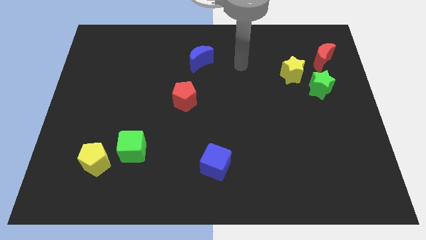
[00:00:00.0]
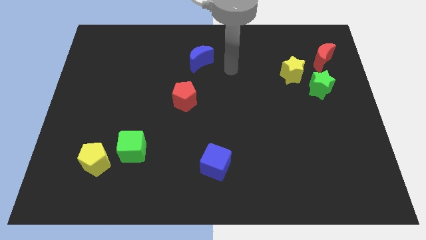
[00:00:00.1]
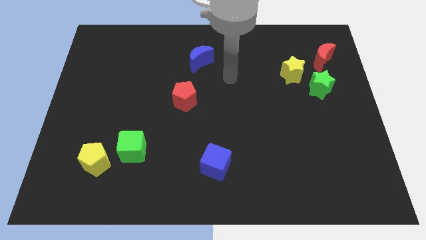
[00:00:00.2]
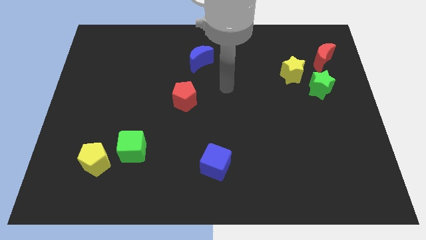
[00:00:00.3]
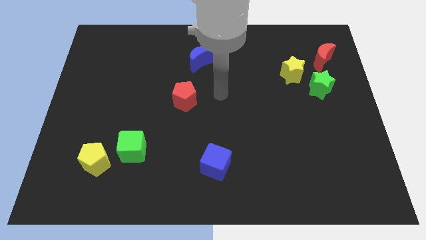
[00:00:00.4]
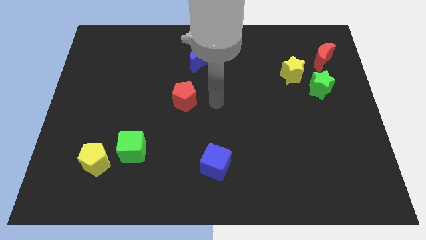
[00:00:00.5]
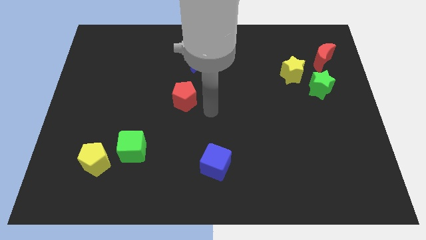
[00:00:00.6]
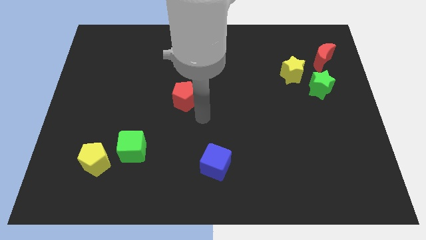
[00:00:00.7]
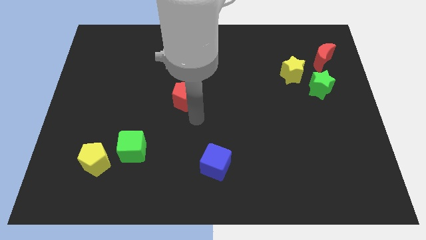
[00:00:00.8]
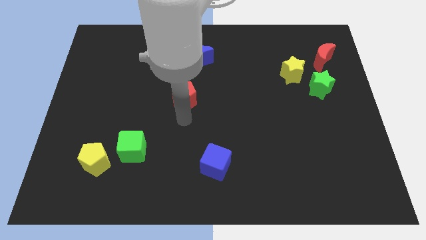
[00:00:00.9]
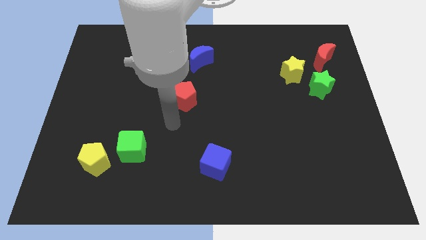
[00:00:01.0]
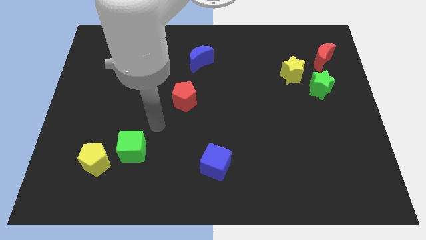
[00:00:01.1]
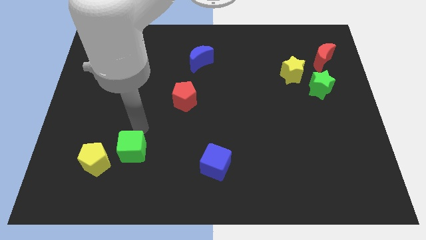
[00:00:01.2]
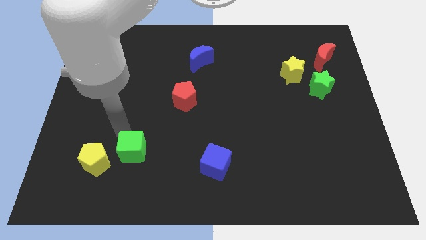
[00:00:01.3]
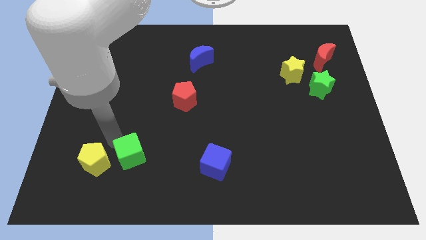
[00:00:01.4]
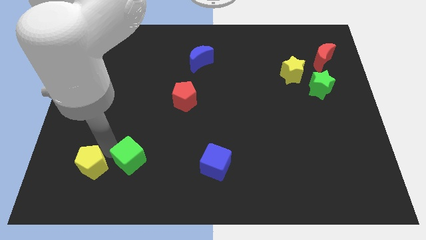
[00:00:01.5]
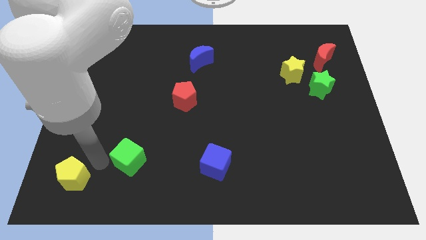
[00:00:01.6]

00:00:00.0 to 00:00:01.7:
pull the green cube apart from the yellow pentagon

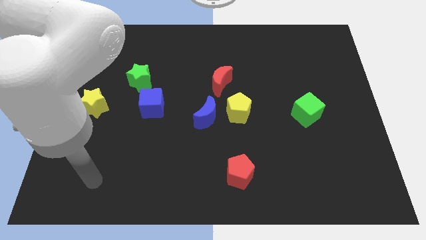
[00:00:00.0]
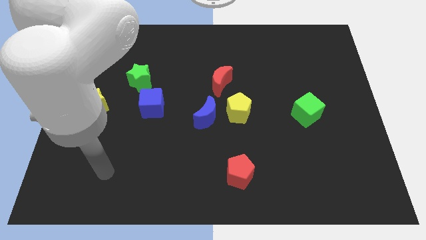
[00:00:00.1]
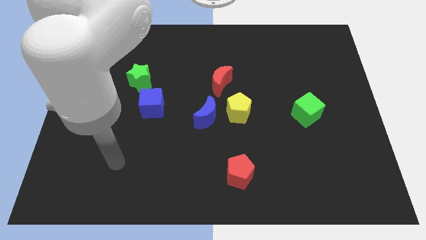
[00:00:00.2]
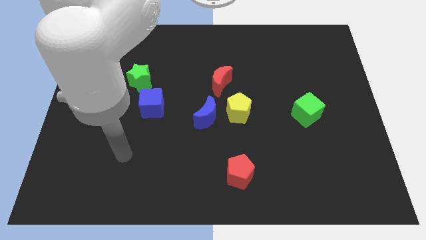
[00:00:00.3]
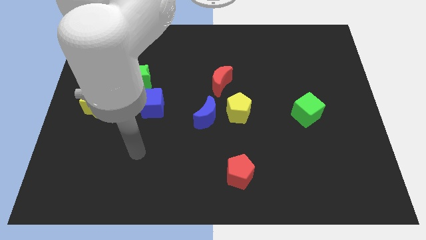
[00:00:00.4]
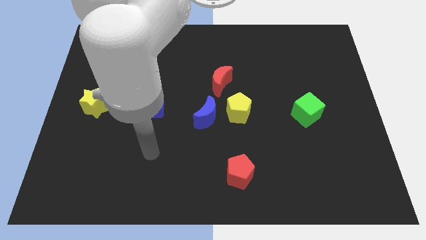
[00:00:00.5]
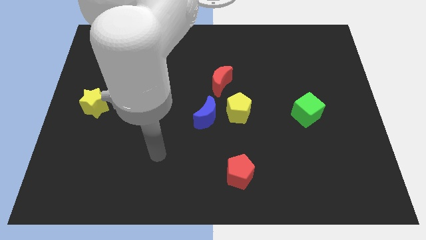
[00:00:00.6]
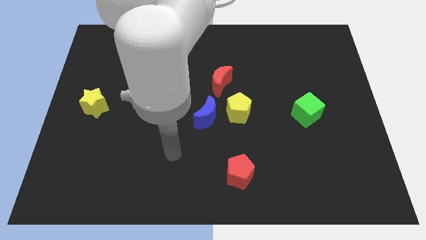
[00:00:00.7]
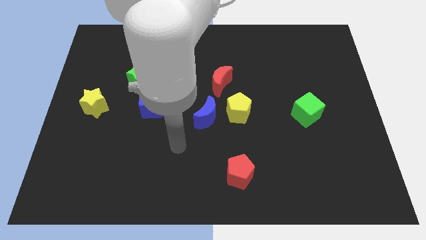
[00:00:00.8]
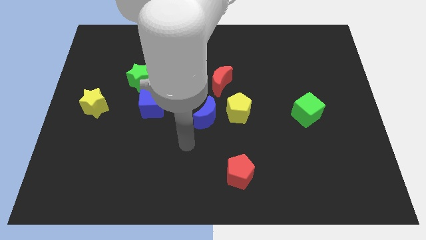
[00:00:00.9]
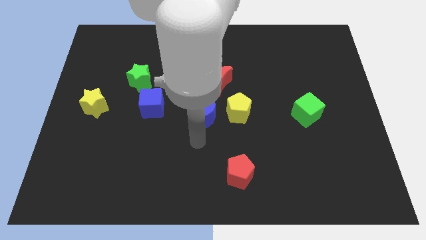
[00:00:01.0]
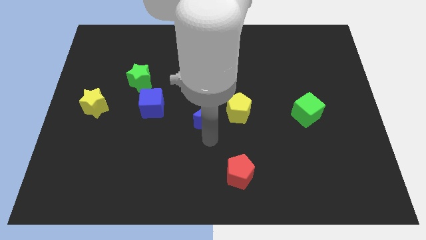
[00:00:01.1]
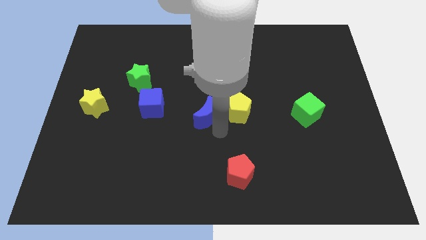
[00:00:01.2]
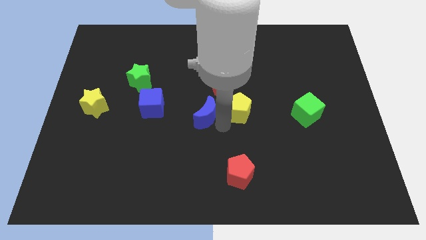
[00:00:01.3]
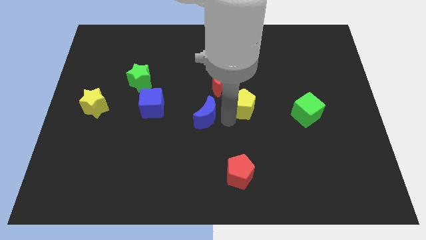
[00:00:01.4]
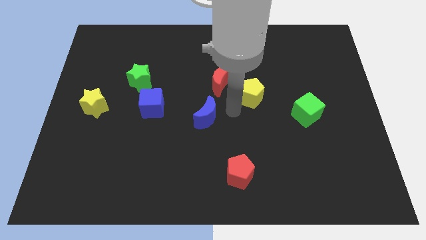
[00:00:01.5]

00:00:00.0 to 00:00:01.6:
move the blue moon away from the yellow pentagon

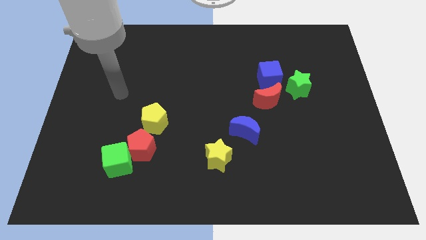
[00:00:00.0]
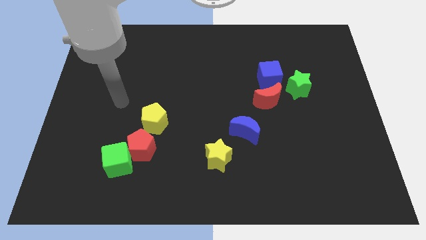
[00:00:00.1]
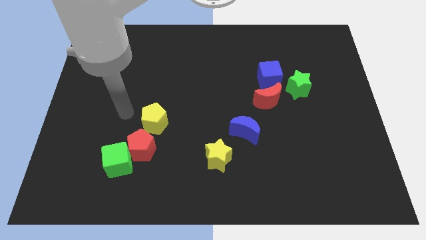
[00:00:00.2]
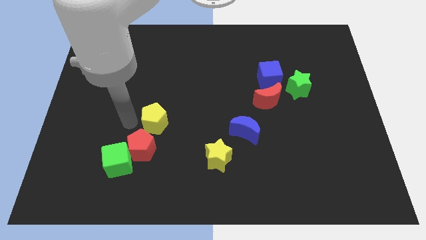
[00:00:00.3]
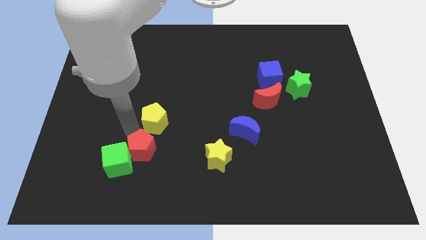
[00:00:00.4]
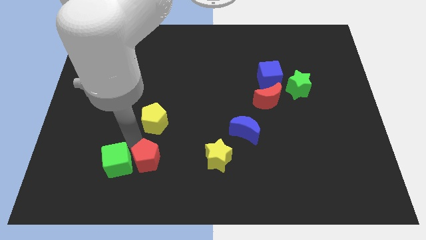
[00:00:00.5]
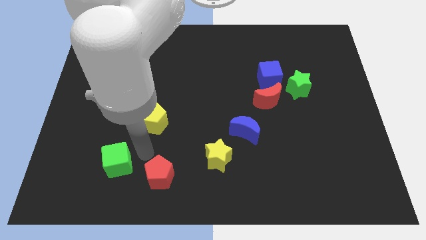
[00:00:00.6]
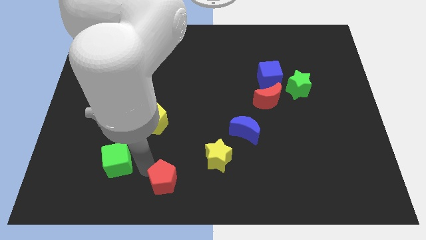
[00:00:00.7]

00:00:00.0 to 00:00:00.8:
move the green cube away from the red pentagon

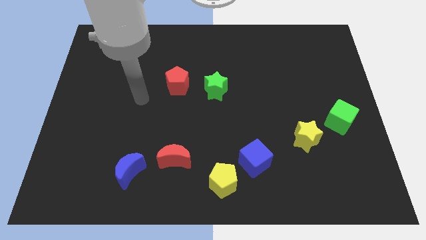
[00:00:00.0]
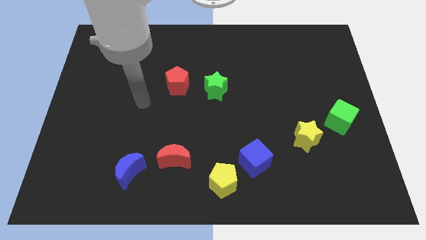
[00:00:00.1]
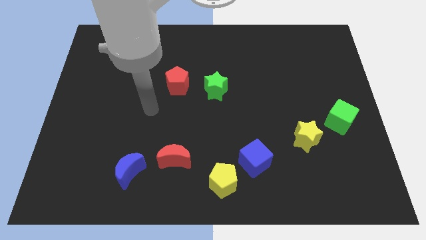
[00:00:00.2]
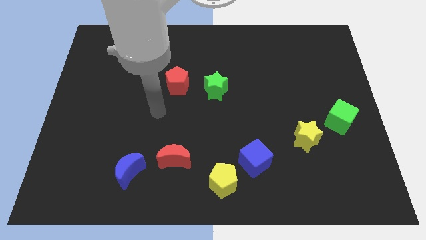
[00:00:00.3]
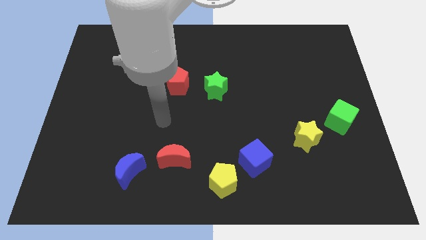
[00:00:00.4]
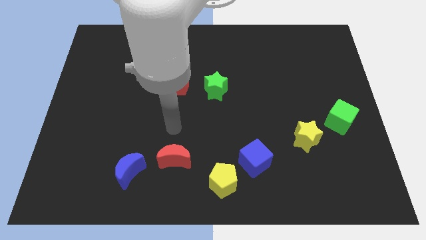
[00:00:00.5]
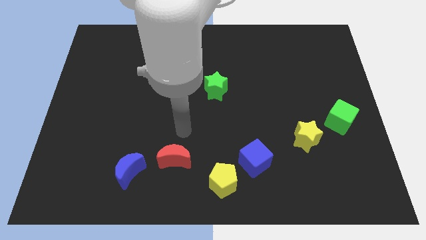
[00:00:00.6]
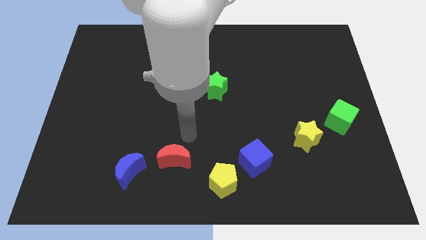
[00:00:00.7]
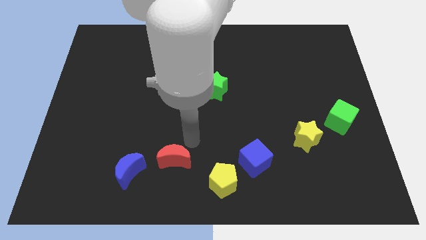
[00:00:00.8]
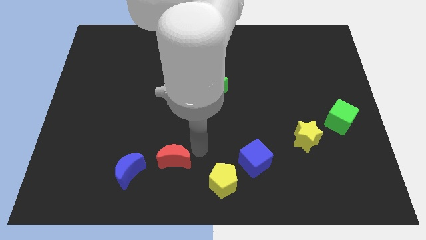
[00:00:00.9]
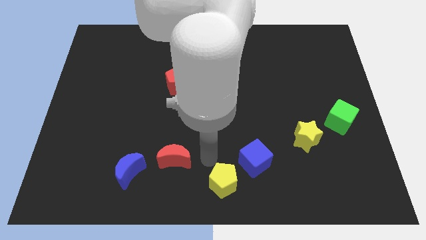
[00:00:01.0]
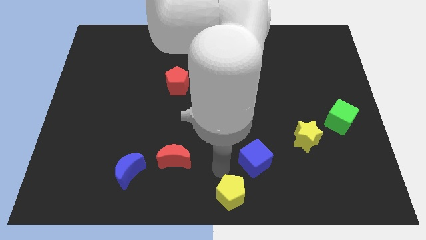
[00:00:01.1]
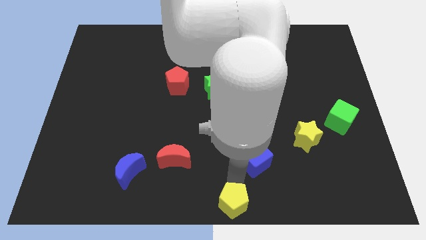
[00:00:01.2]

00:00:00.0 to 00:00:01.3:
move the blue cube away from the yellow pentagon

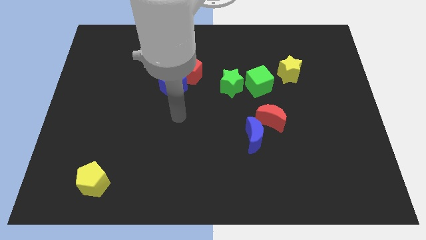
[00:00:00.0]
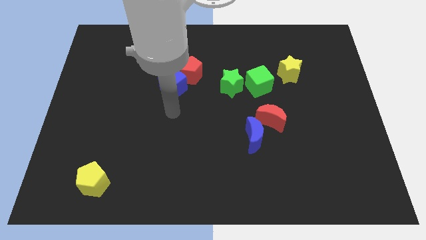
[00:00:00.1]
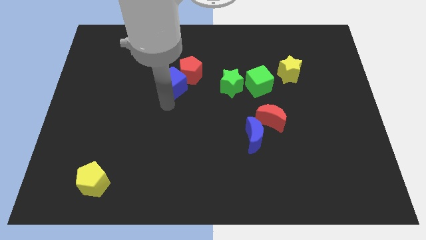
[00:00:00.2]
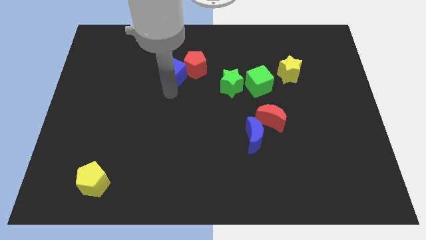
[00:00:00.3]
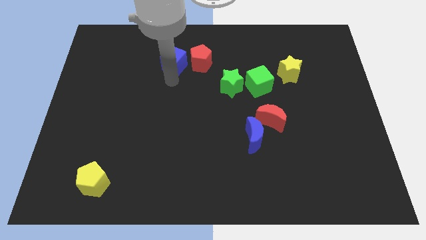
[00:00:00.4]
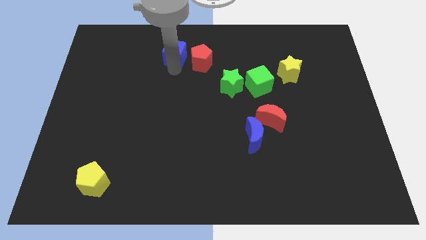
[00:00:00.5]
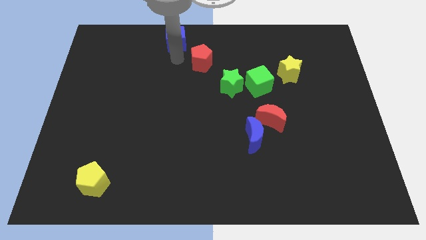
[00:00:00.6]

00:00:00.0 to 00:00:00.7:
move the red pentagon away from the blue cube

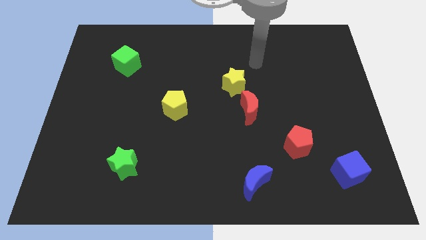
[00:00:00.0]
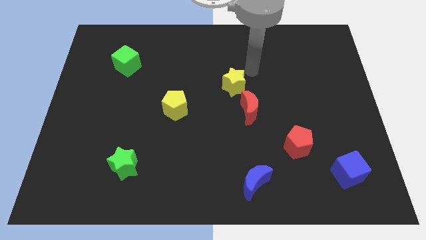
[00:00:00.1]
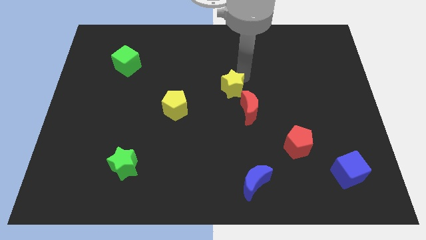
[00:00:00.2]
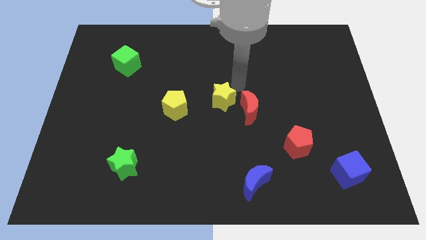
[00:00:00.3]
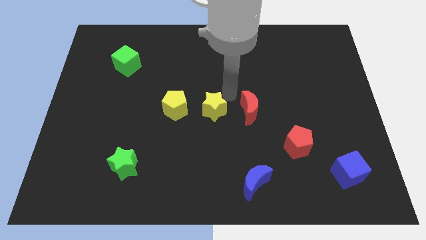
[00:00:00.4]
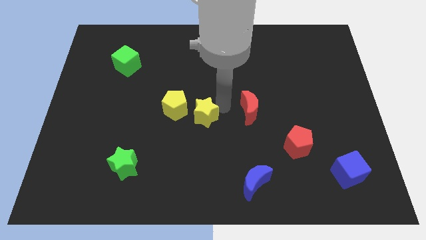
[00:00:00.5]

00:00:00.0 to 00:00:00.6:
move the red moon away from the yellow star

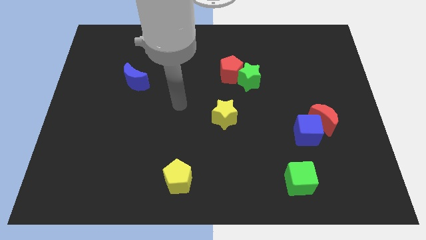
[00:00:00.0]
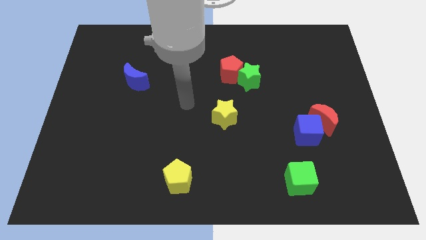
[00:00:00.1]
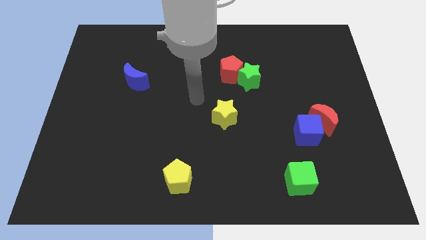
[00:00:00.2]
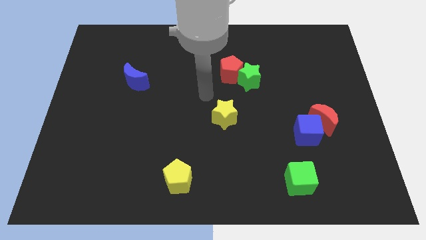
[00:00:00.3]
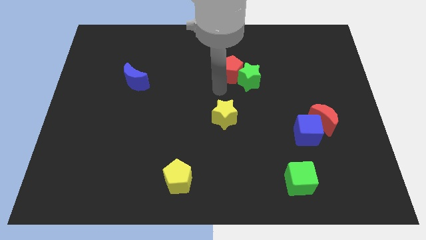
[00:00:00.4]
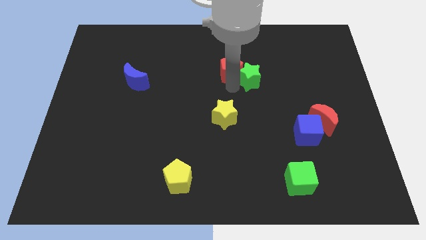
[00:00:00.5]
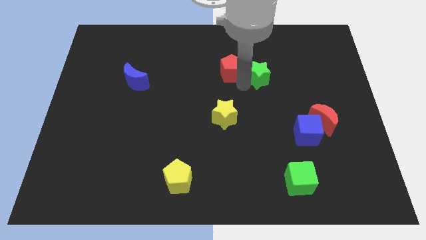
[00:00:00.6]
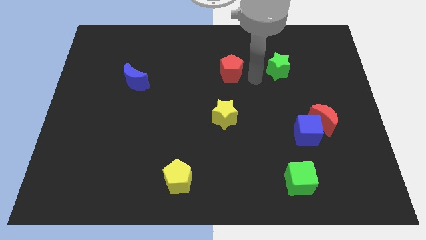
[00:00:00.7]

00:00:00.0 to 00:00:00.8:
pull the red pentagon apart from the green star

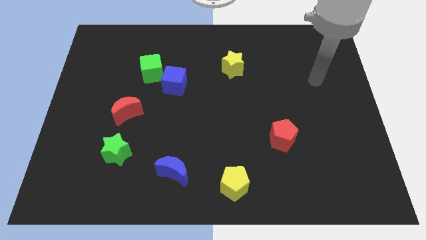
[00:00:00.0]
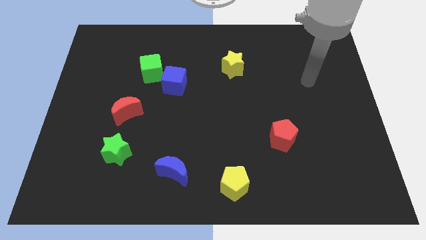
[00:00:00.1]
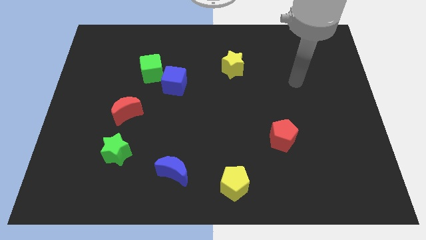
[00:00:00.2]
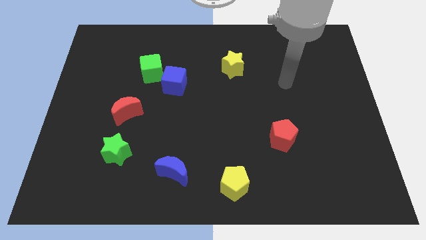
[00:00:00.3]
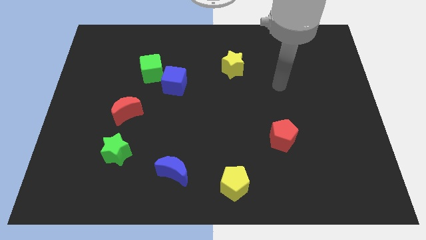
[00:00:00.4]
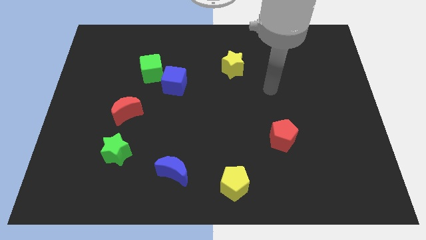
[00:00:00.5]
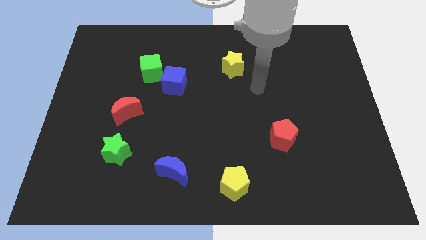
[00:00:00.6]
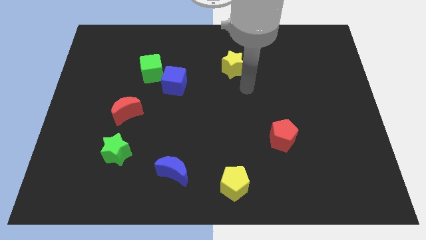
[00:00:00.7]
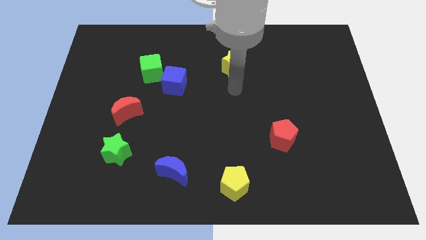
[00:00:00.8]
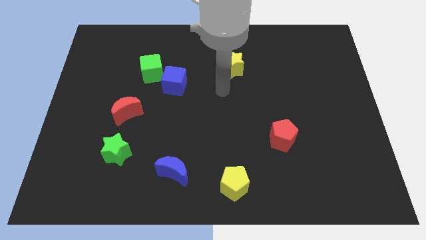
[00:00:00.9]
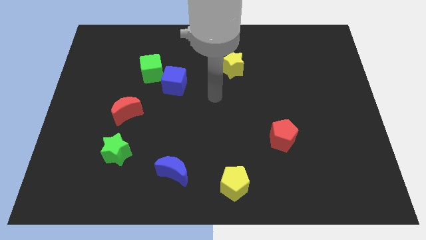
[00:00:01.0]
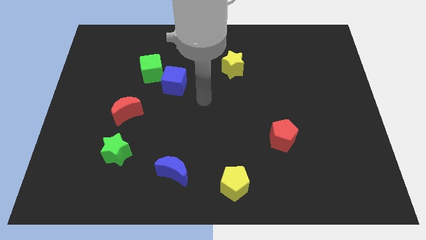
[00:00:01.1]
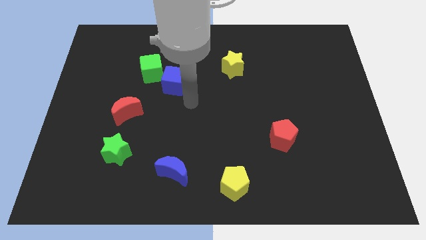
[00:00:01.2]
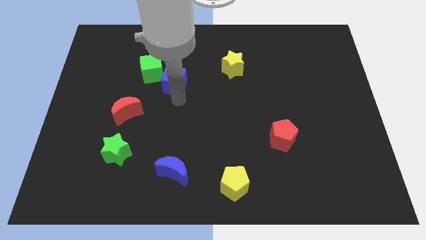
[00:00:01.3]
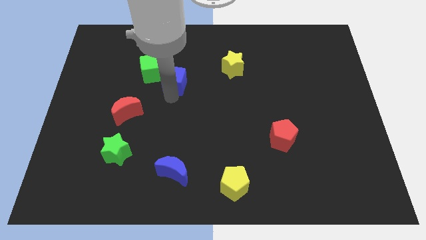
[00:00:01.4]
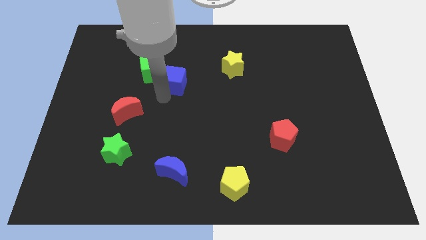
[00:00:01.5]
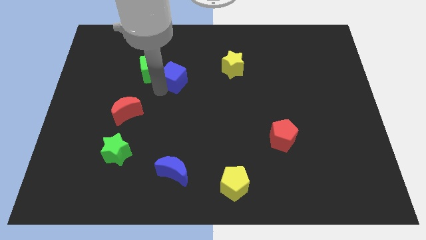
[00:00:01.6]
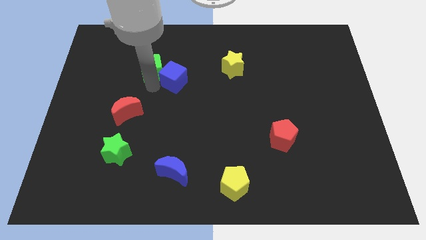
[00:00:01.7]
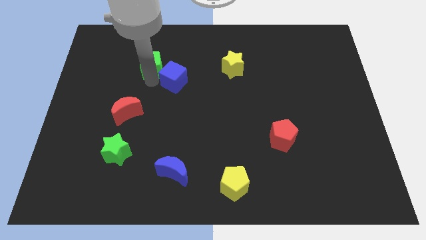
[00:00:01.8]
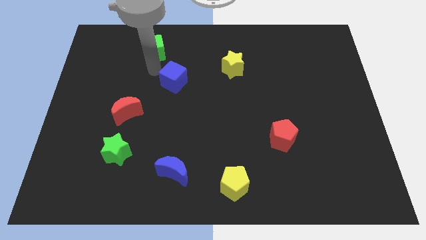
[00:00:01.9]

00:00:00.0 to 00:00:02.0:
move the blue cube away from the green cube
